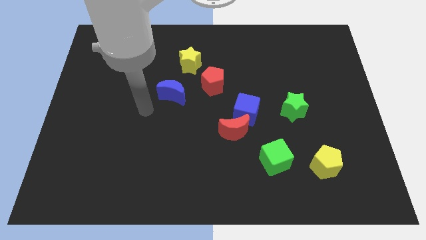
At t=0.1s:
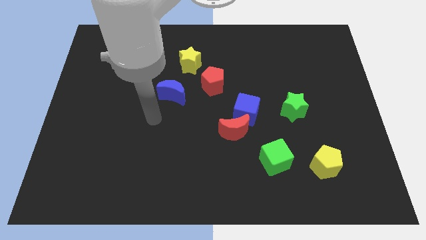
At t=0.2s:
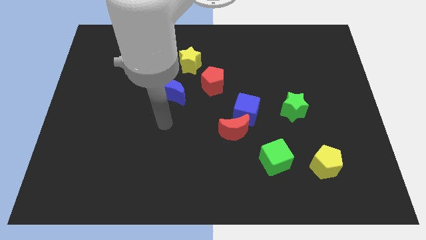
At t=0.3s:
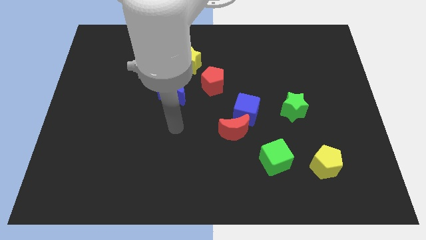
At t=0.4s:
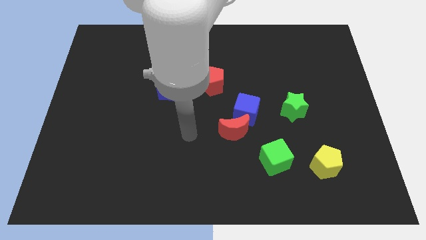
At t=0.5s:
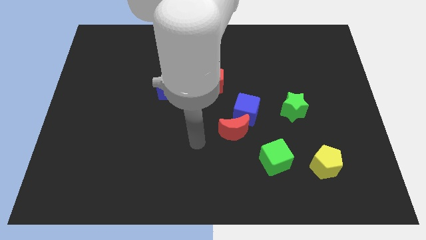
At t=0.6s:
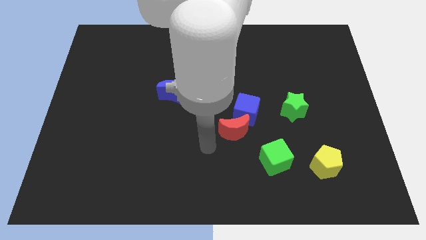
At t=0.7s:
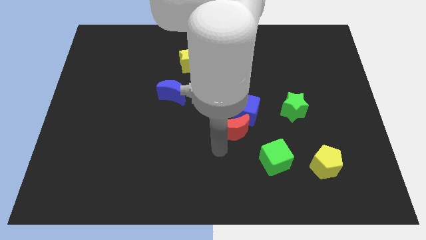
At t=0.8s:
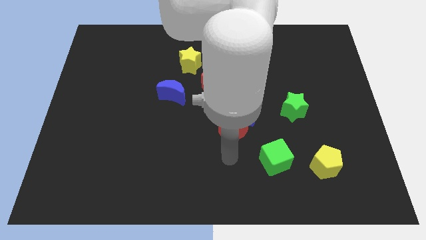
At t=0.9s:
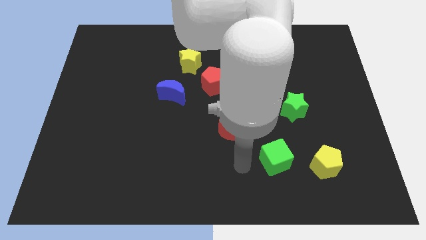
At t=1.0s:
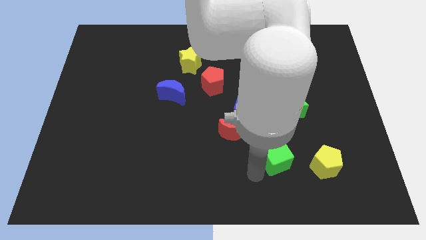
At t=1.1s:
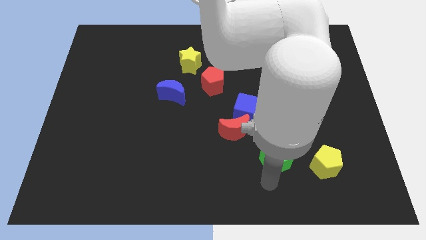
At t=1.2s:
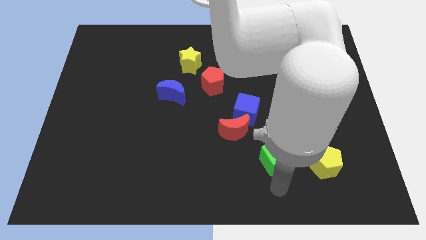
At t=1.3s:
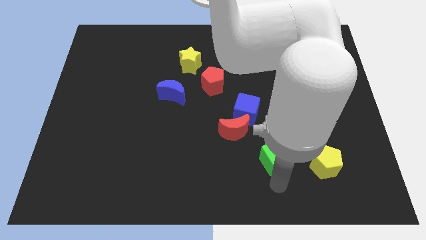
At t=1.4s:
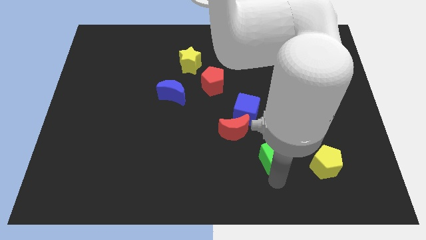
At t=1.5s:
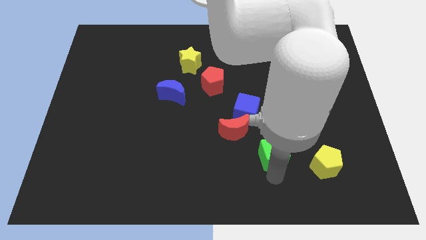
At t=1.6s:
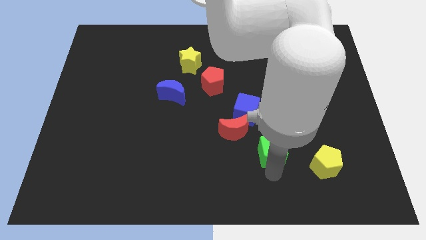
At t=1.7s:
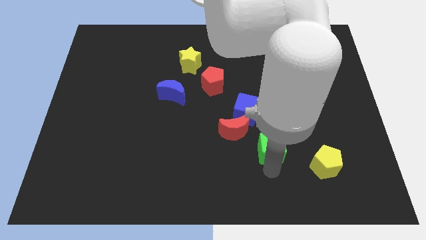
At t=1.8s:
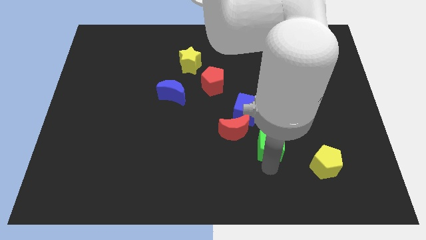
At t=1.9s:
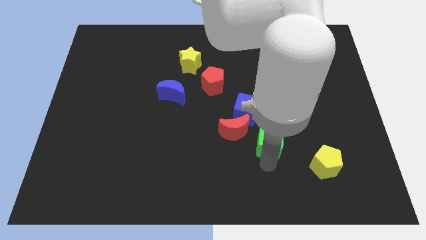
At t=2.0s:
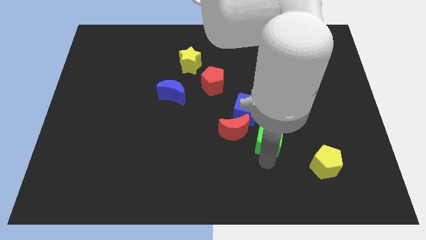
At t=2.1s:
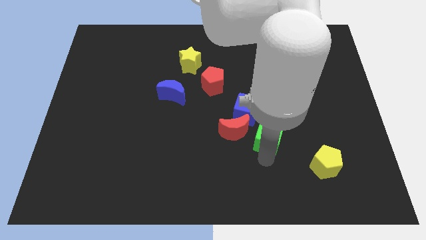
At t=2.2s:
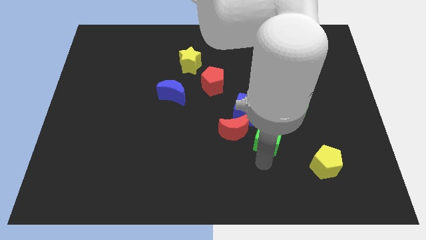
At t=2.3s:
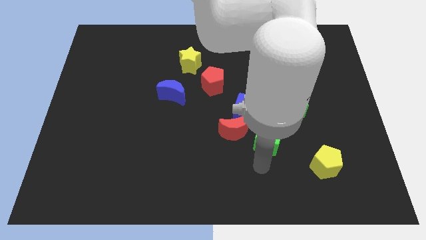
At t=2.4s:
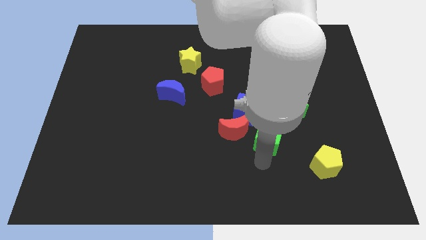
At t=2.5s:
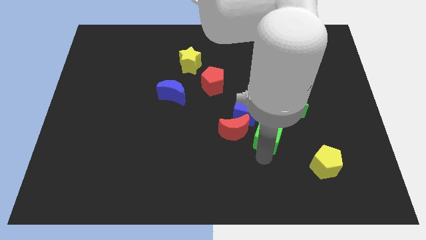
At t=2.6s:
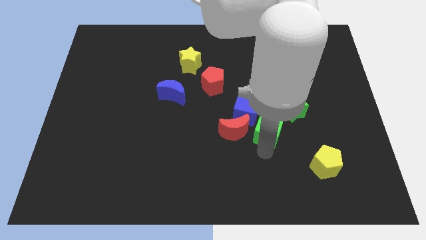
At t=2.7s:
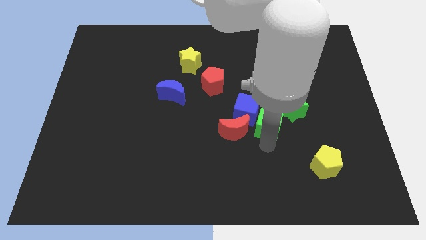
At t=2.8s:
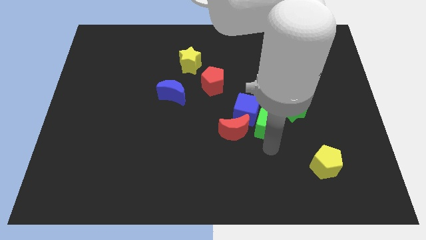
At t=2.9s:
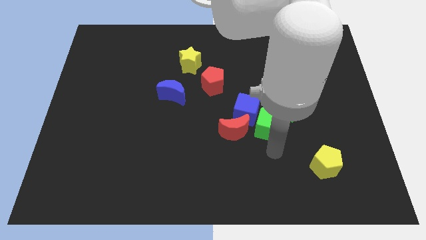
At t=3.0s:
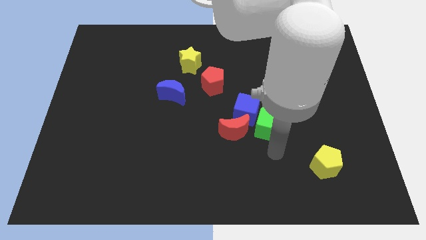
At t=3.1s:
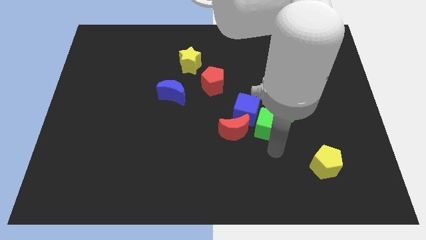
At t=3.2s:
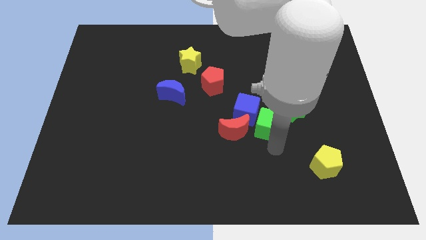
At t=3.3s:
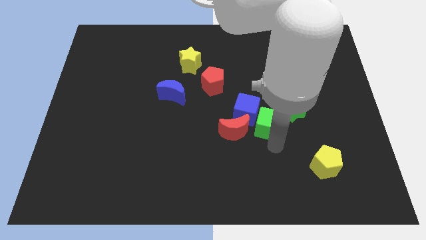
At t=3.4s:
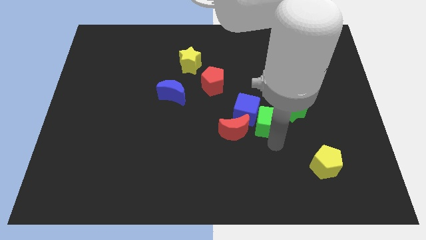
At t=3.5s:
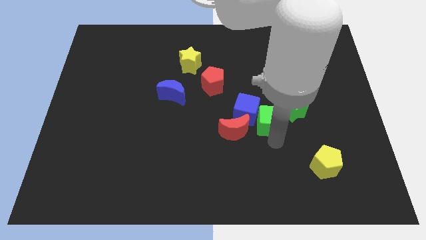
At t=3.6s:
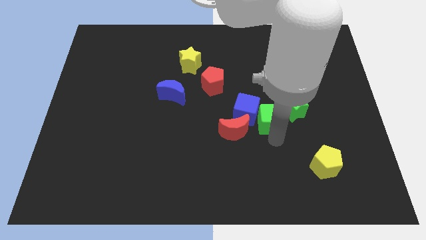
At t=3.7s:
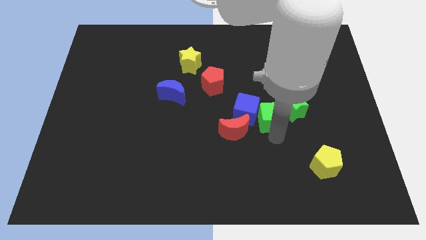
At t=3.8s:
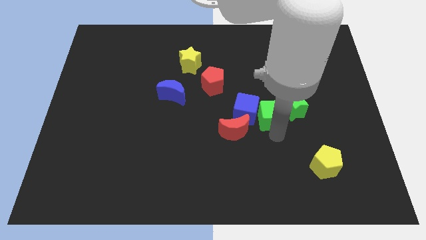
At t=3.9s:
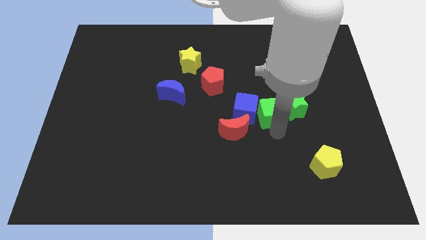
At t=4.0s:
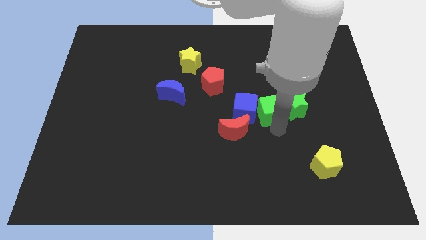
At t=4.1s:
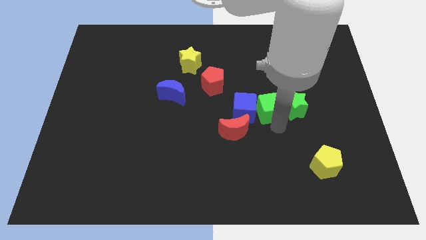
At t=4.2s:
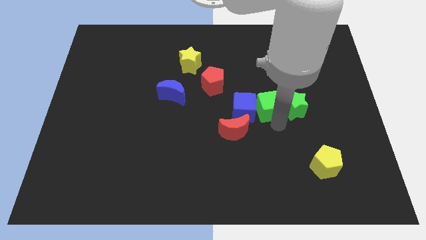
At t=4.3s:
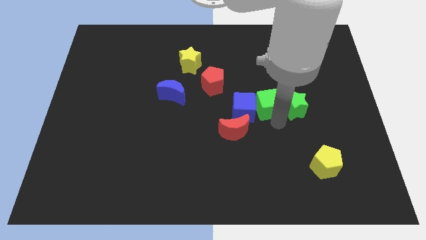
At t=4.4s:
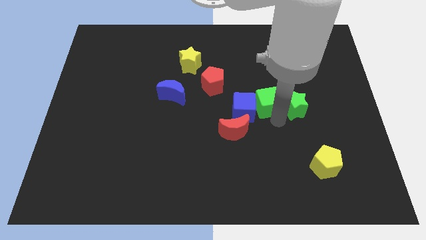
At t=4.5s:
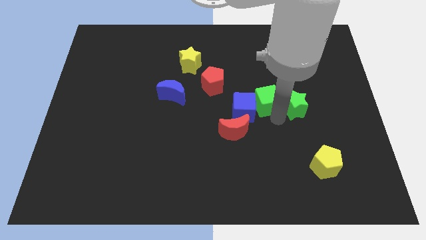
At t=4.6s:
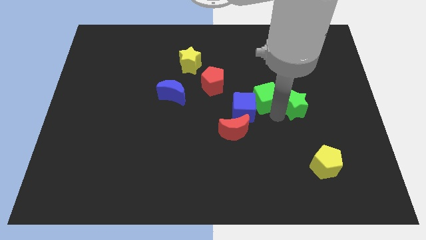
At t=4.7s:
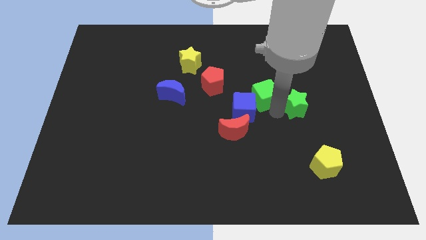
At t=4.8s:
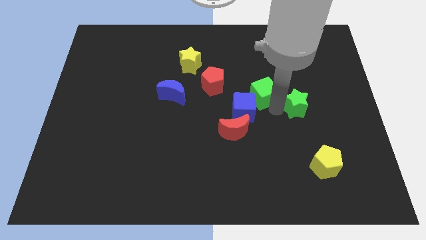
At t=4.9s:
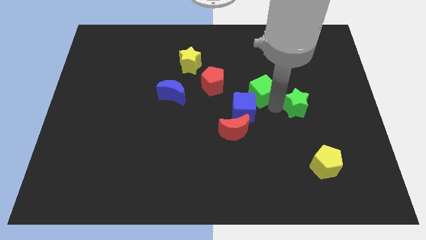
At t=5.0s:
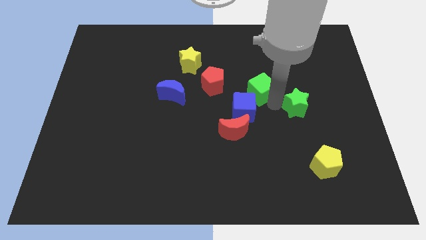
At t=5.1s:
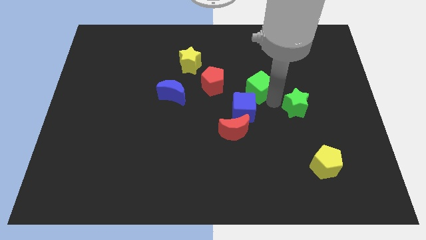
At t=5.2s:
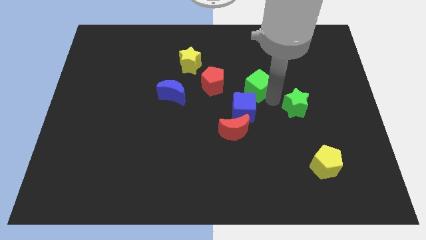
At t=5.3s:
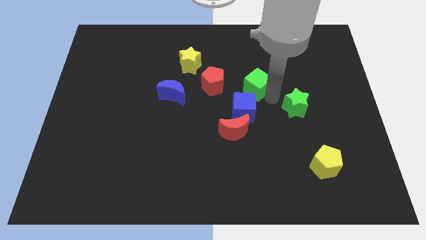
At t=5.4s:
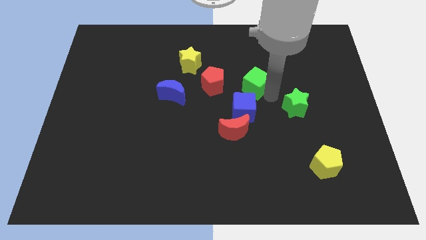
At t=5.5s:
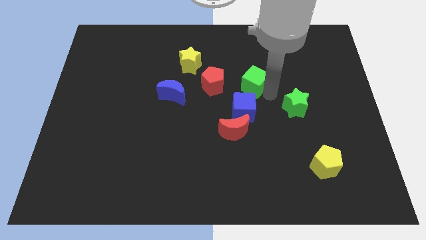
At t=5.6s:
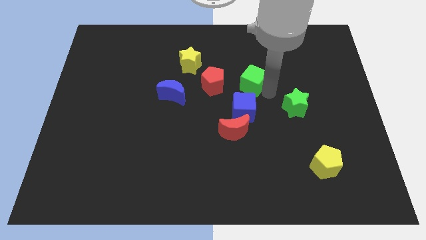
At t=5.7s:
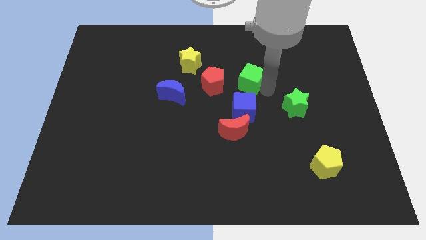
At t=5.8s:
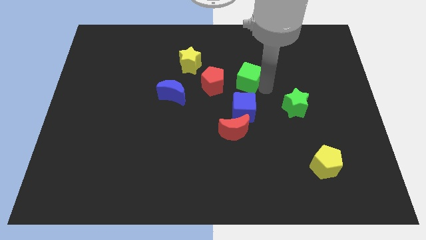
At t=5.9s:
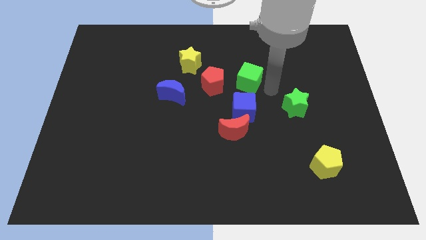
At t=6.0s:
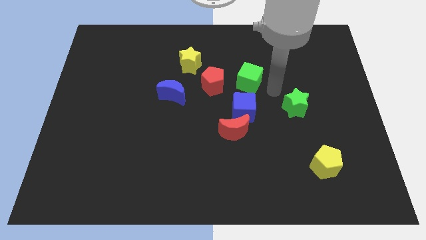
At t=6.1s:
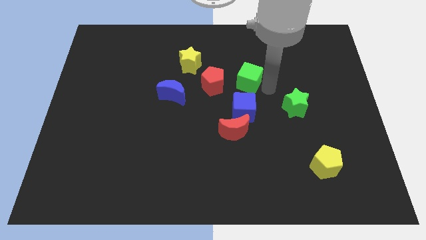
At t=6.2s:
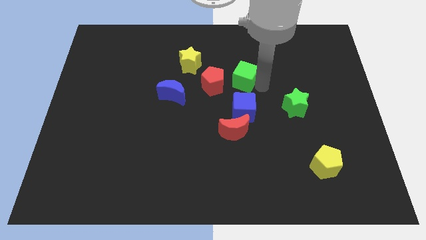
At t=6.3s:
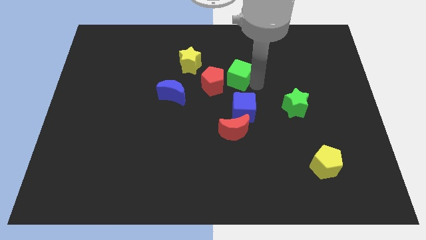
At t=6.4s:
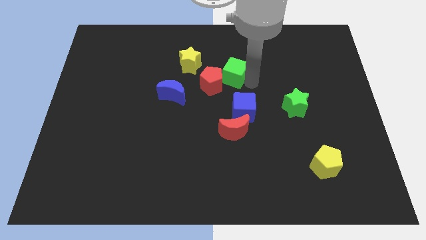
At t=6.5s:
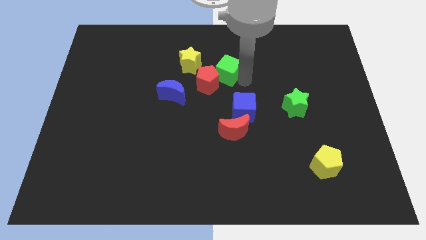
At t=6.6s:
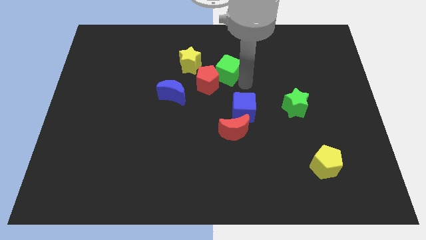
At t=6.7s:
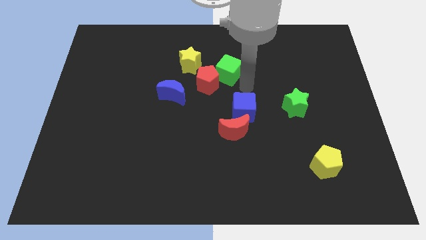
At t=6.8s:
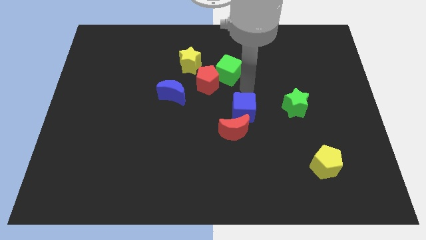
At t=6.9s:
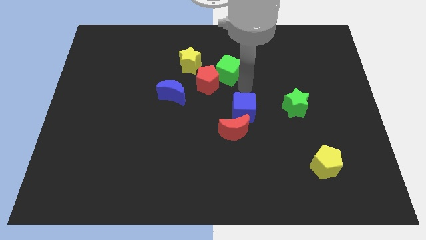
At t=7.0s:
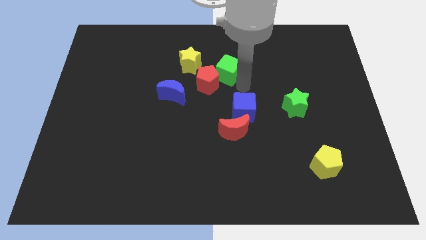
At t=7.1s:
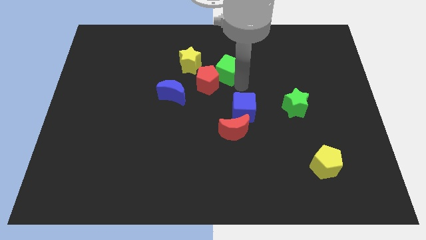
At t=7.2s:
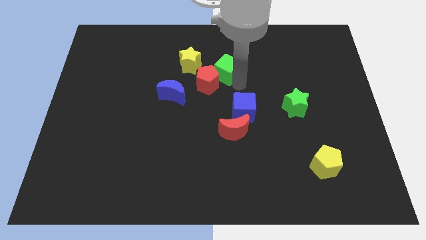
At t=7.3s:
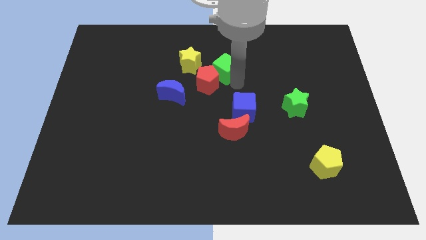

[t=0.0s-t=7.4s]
put the green cube above the red pentagon
